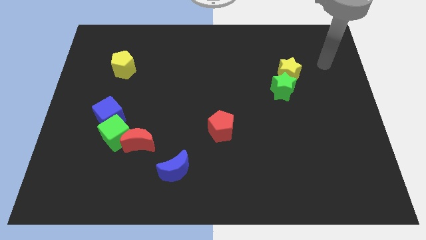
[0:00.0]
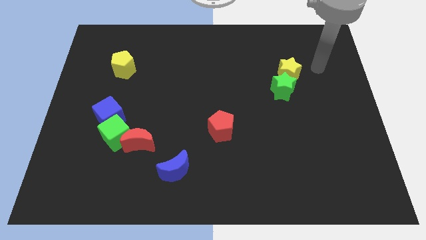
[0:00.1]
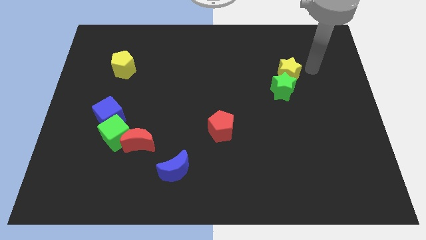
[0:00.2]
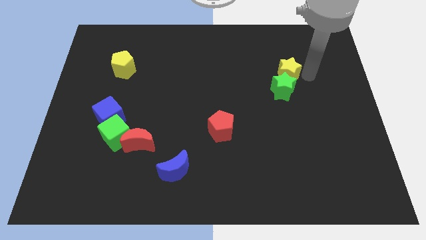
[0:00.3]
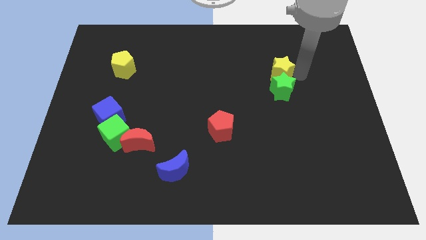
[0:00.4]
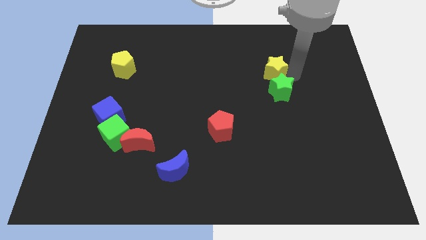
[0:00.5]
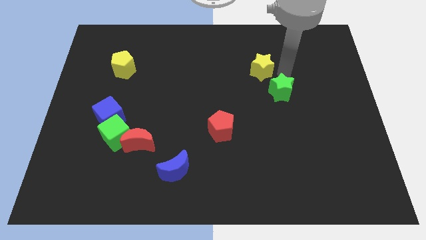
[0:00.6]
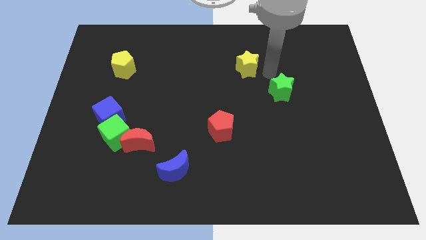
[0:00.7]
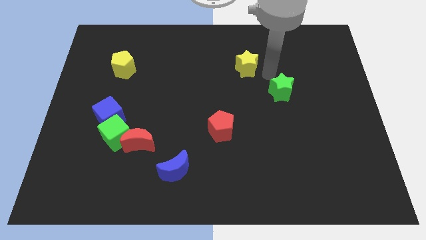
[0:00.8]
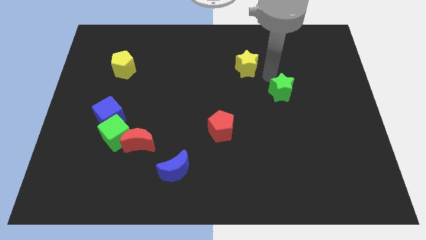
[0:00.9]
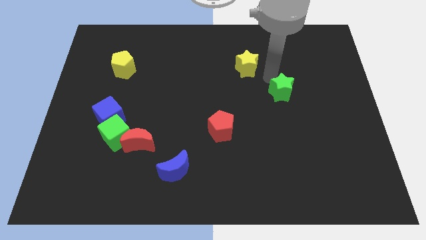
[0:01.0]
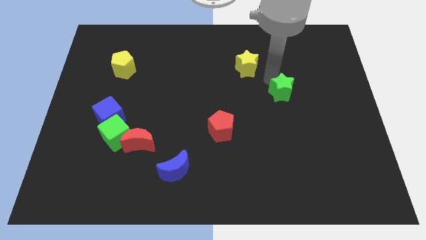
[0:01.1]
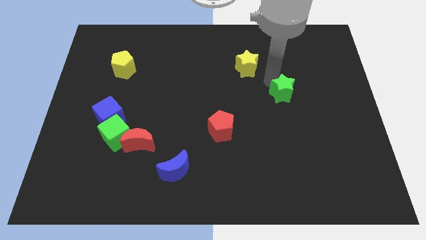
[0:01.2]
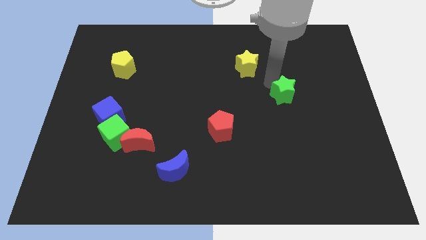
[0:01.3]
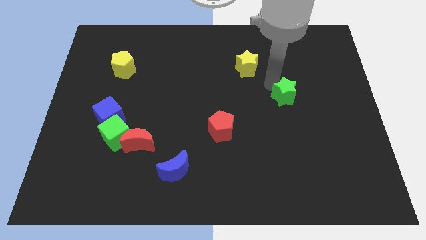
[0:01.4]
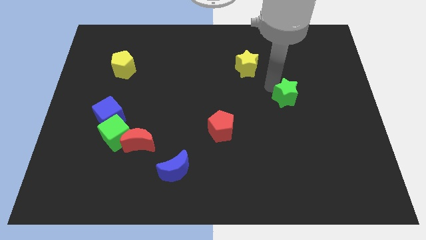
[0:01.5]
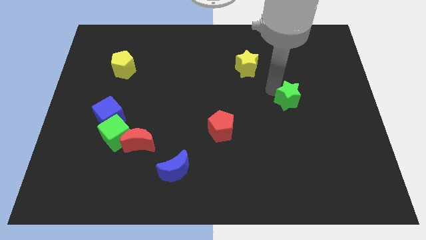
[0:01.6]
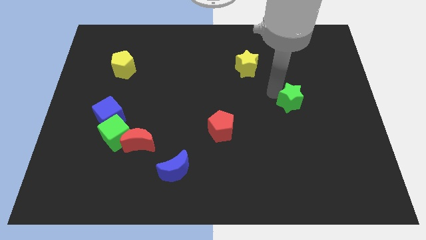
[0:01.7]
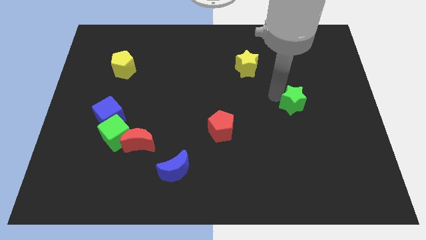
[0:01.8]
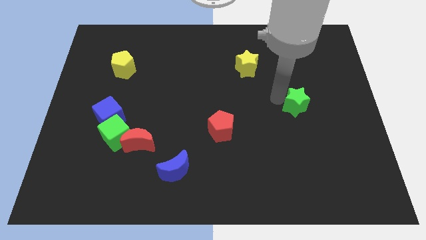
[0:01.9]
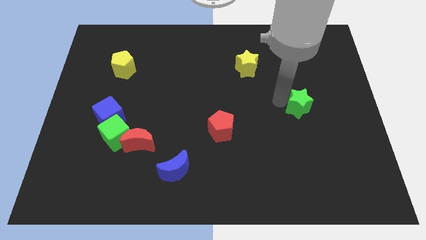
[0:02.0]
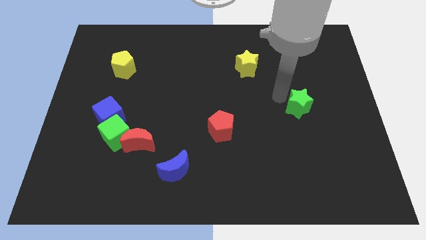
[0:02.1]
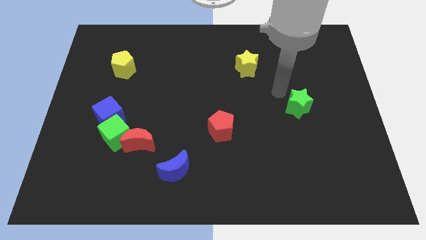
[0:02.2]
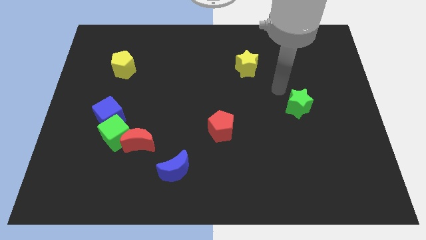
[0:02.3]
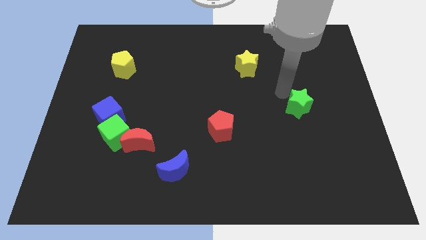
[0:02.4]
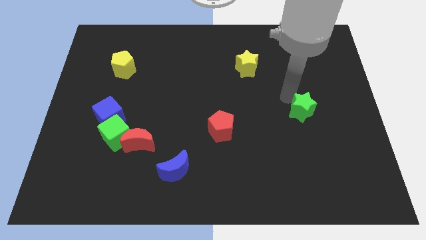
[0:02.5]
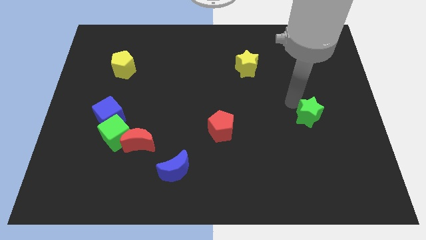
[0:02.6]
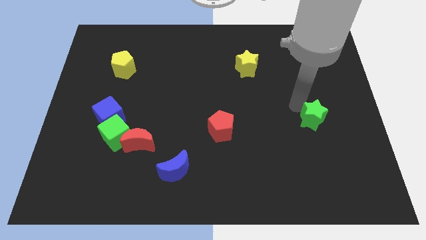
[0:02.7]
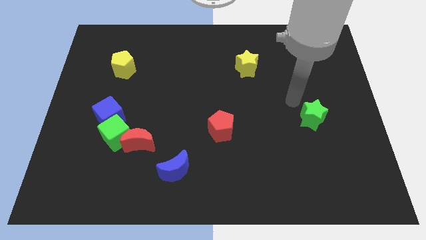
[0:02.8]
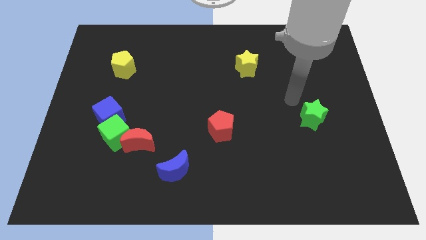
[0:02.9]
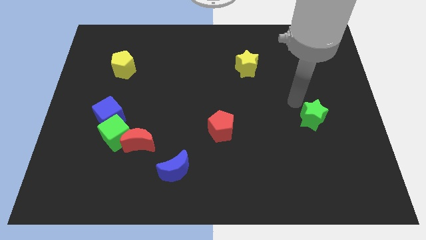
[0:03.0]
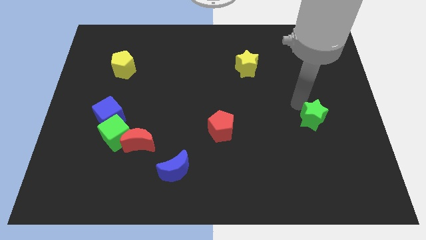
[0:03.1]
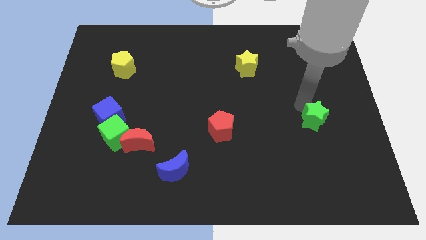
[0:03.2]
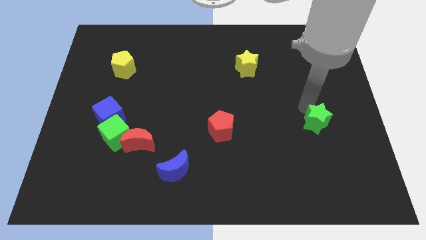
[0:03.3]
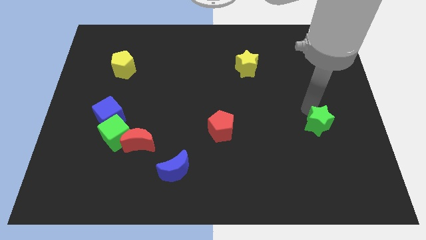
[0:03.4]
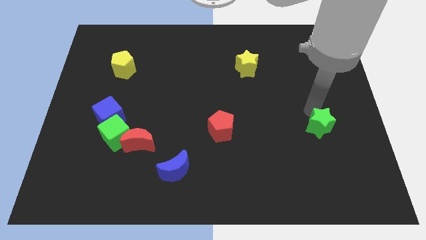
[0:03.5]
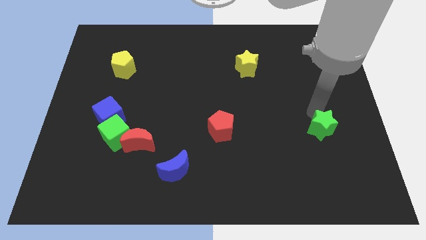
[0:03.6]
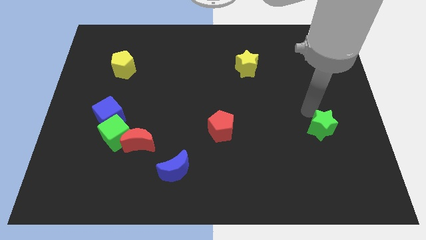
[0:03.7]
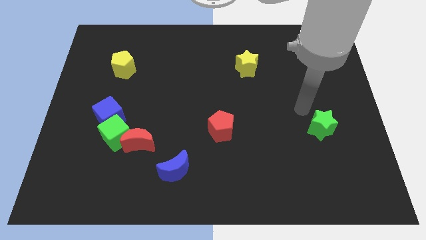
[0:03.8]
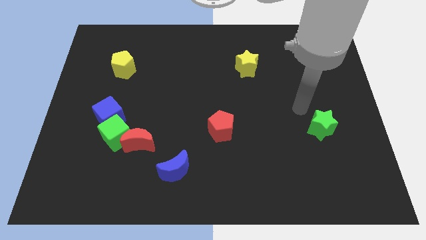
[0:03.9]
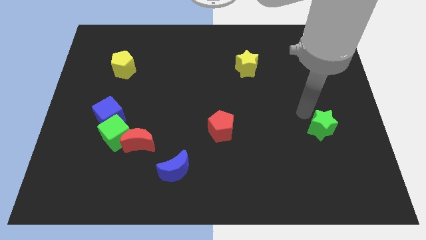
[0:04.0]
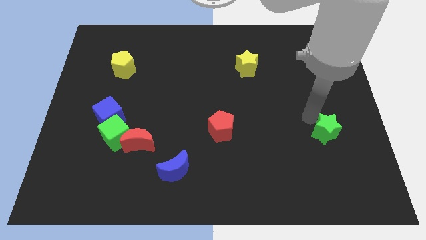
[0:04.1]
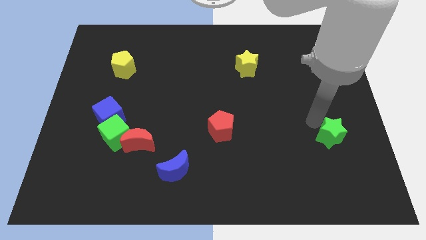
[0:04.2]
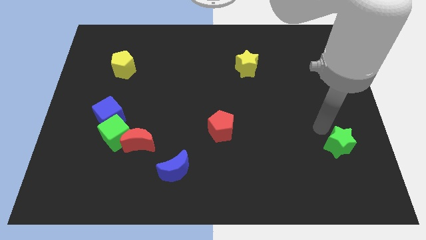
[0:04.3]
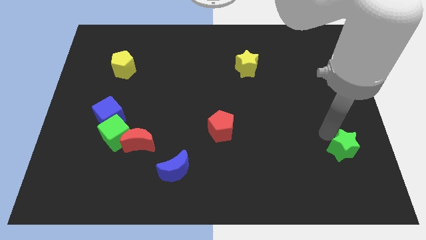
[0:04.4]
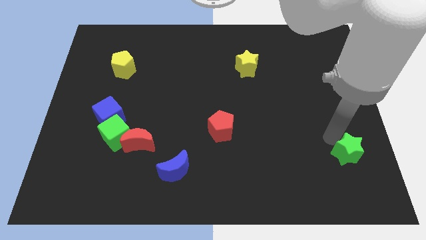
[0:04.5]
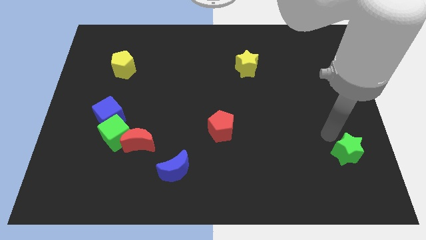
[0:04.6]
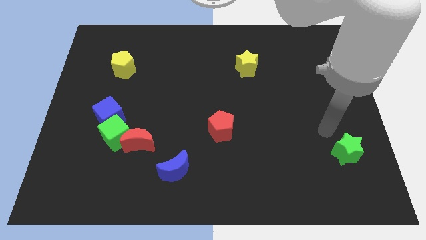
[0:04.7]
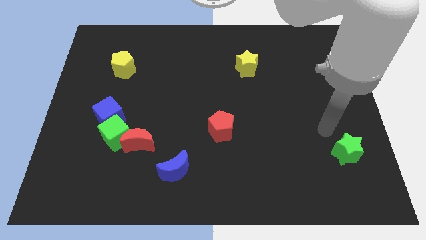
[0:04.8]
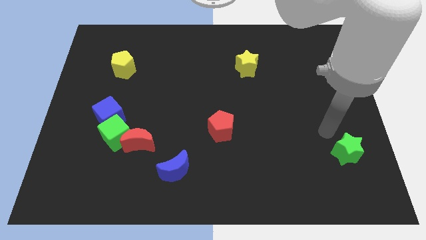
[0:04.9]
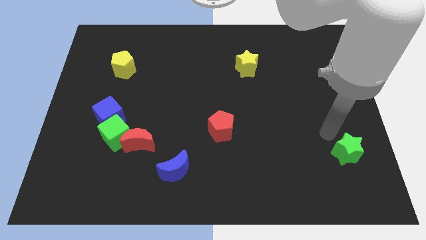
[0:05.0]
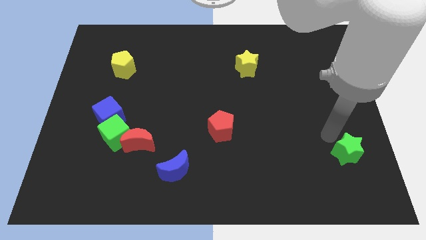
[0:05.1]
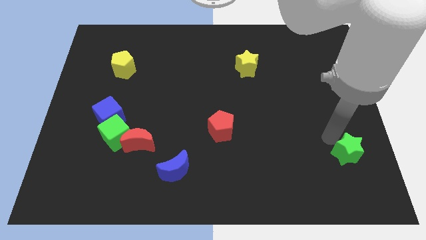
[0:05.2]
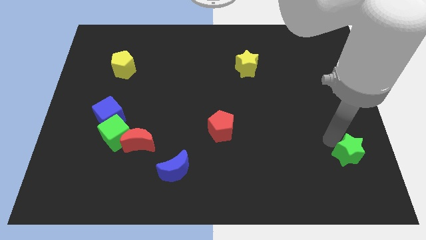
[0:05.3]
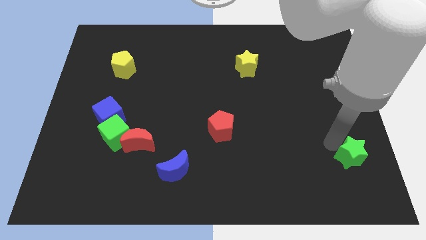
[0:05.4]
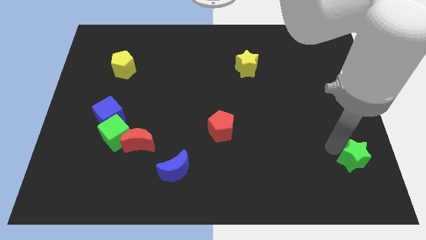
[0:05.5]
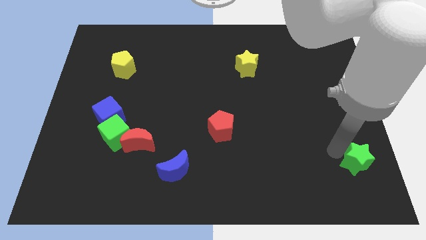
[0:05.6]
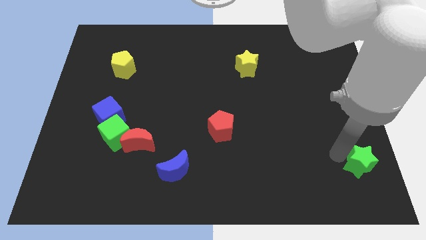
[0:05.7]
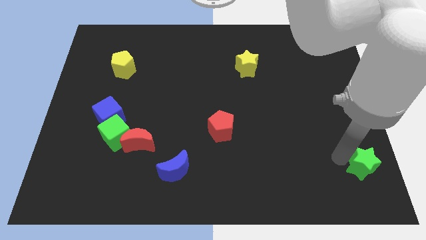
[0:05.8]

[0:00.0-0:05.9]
move the green star to the bottom right
